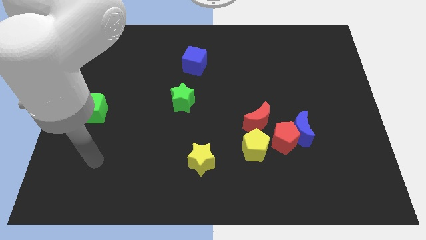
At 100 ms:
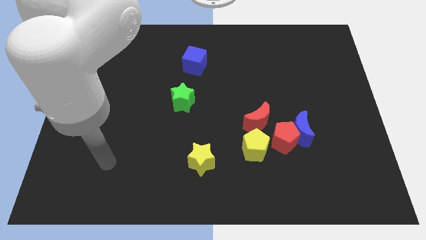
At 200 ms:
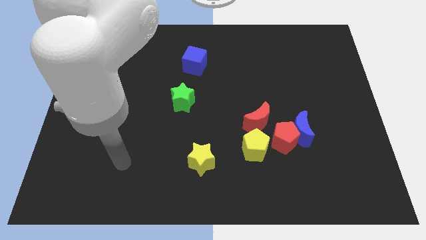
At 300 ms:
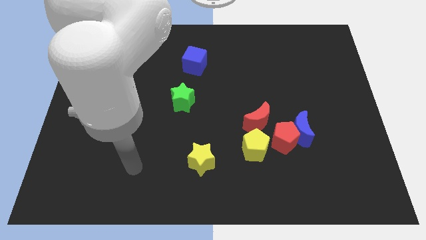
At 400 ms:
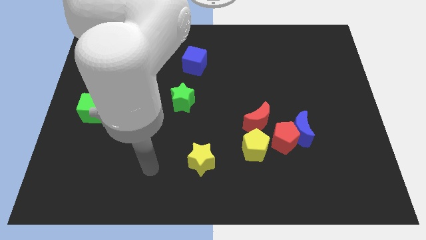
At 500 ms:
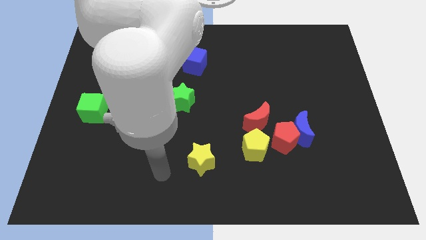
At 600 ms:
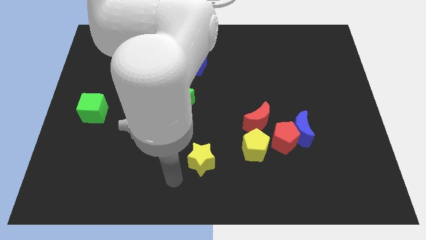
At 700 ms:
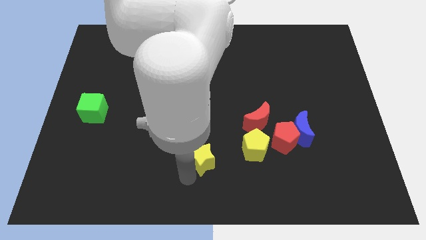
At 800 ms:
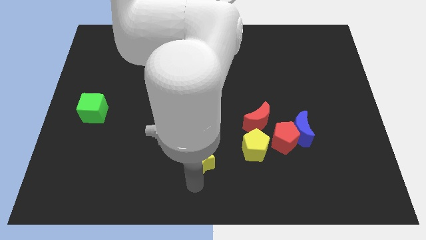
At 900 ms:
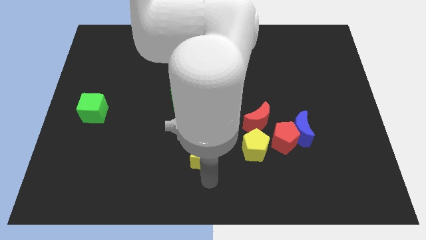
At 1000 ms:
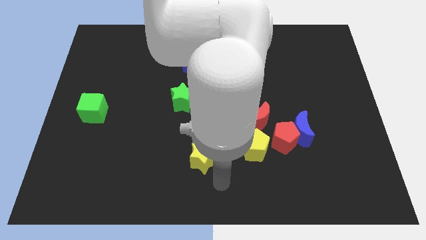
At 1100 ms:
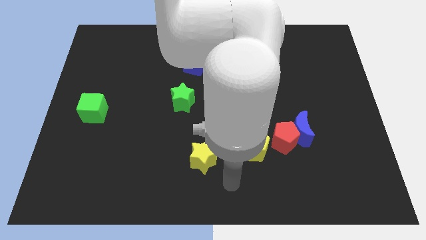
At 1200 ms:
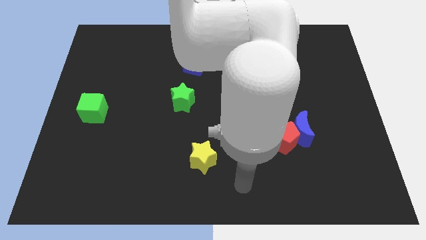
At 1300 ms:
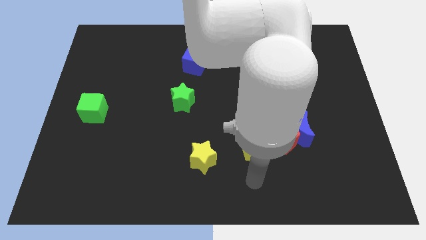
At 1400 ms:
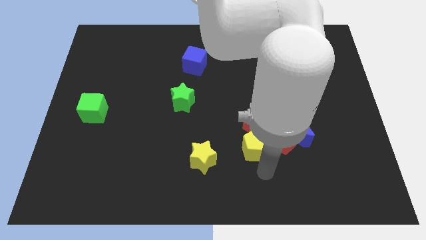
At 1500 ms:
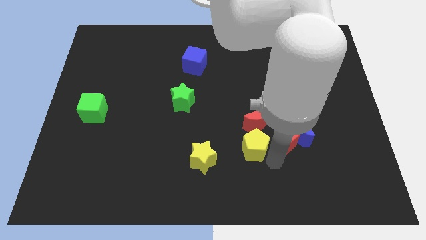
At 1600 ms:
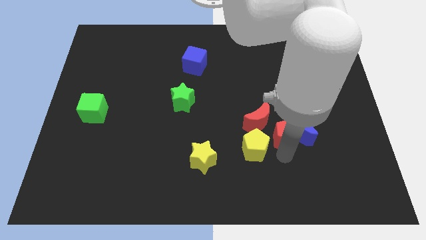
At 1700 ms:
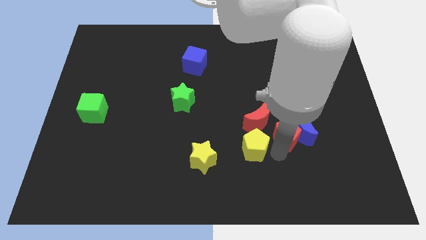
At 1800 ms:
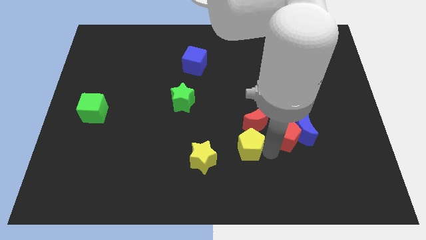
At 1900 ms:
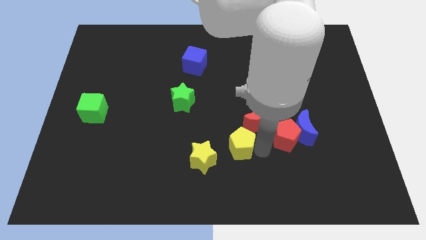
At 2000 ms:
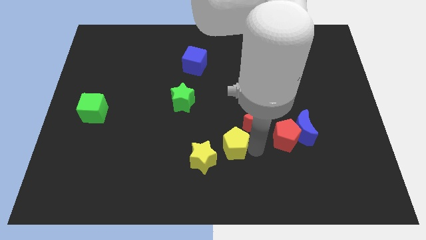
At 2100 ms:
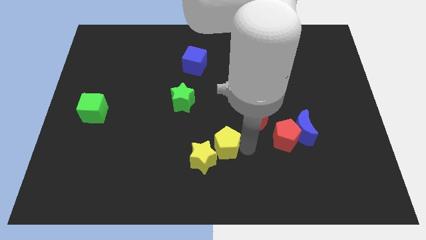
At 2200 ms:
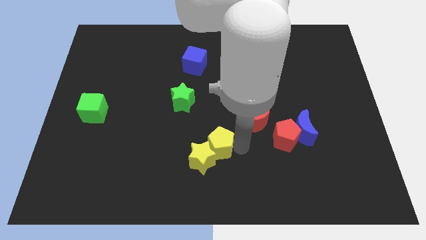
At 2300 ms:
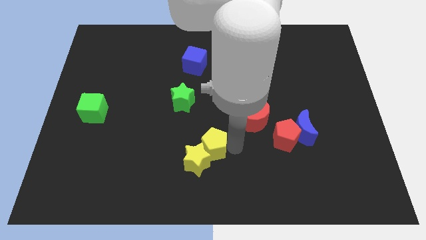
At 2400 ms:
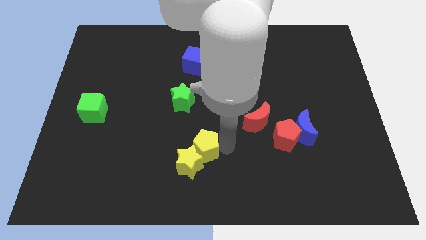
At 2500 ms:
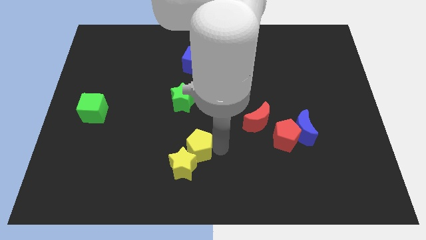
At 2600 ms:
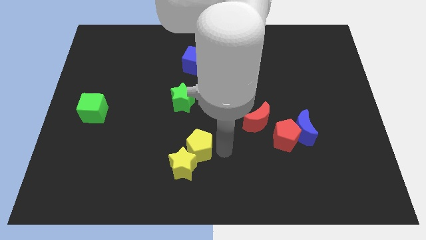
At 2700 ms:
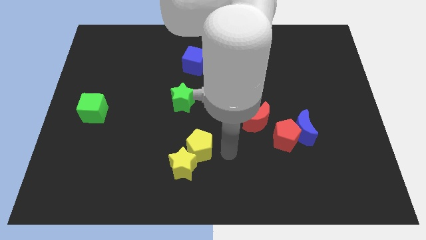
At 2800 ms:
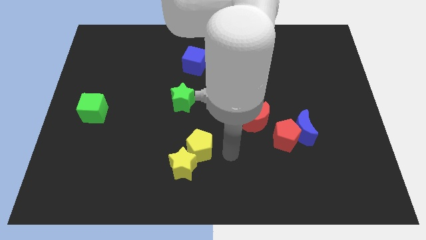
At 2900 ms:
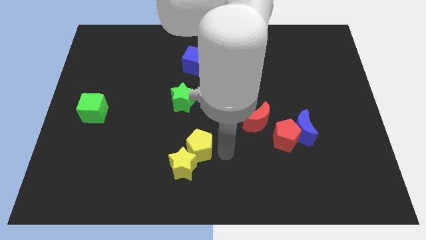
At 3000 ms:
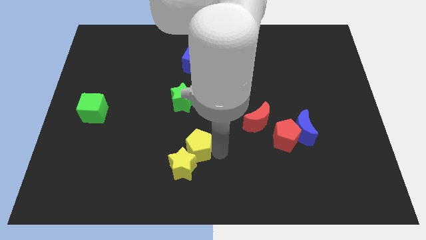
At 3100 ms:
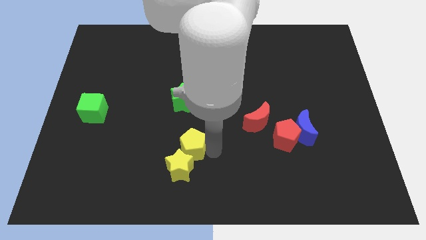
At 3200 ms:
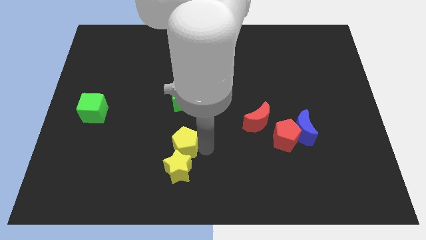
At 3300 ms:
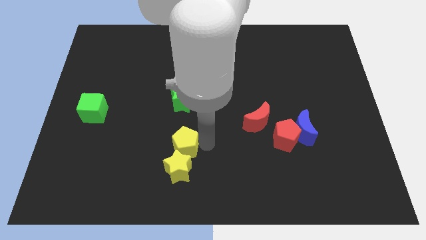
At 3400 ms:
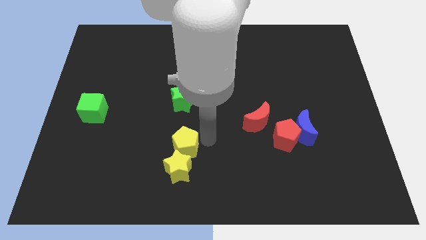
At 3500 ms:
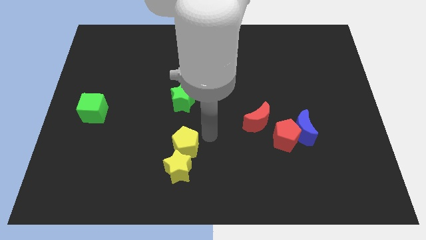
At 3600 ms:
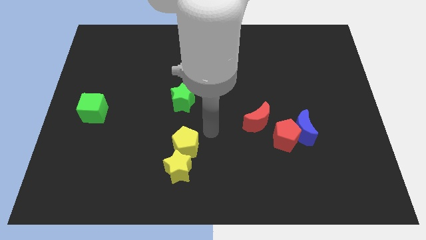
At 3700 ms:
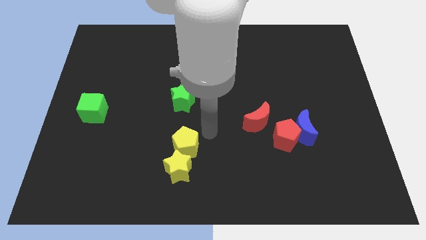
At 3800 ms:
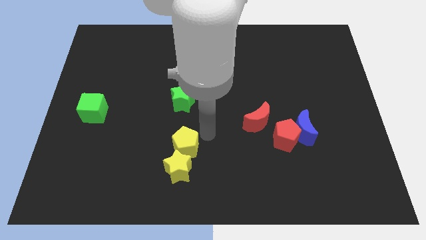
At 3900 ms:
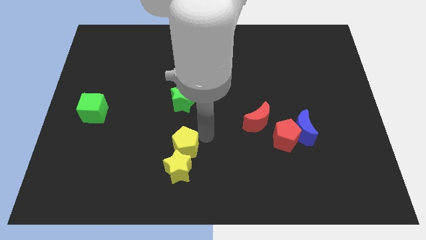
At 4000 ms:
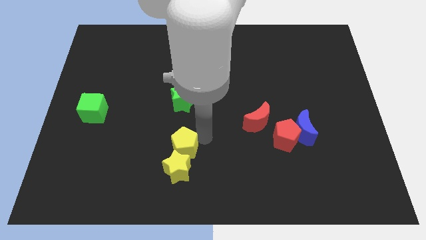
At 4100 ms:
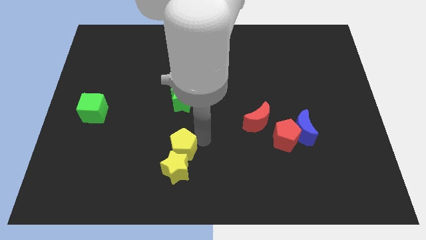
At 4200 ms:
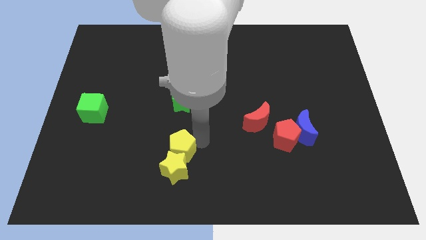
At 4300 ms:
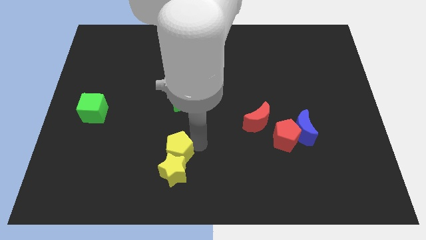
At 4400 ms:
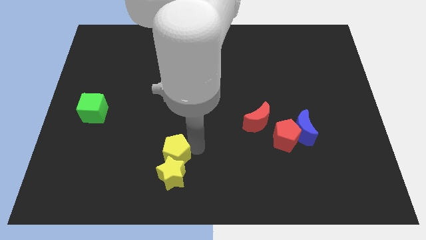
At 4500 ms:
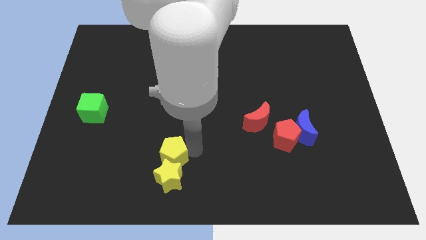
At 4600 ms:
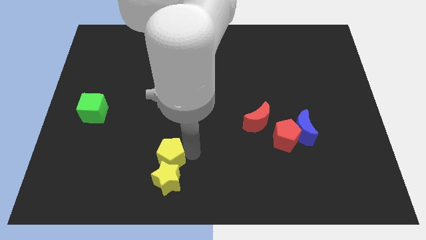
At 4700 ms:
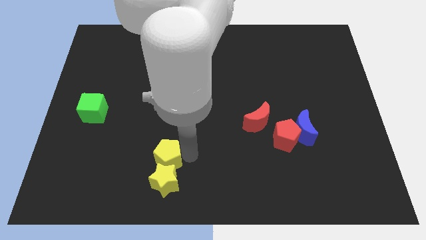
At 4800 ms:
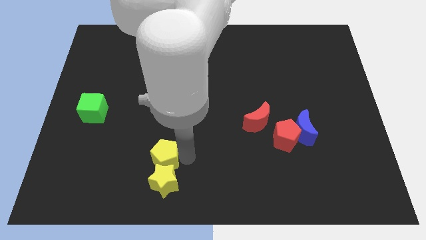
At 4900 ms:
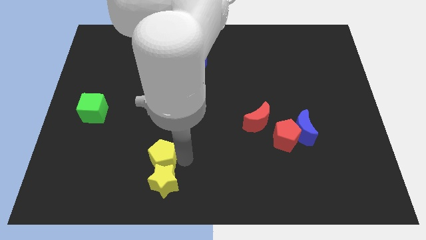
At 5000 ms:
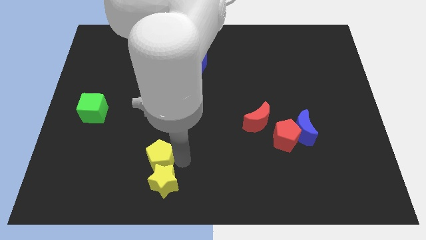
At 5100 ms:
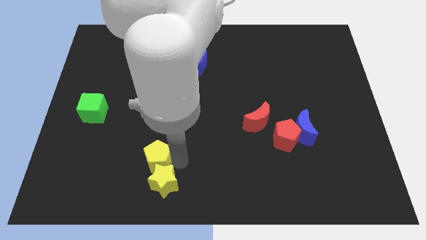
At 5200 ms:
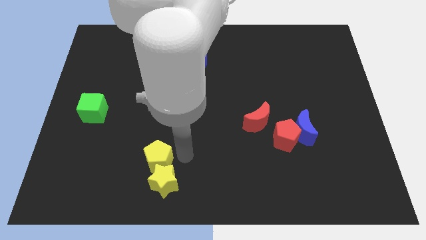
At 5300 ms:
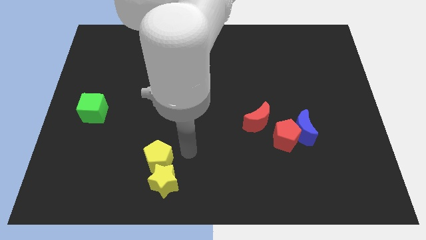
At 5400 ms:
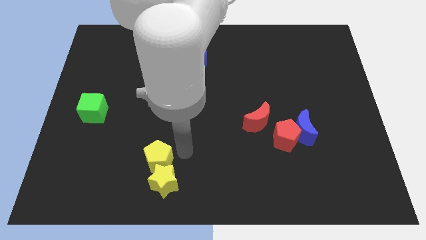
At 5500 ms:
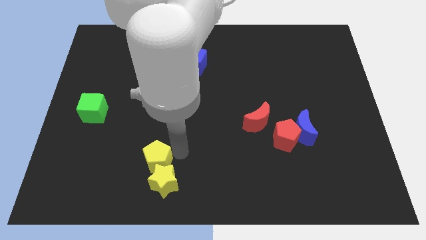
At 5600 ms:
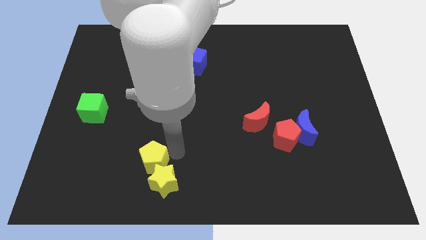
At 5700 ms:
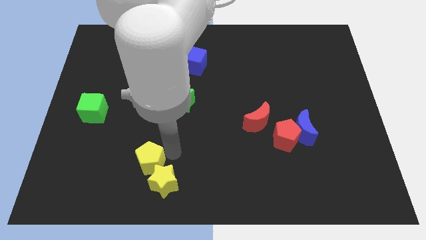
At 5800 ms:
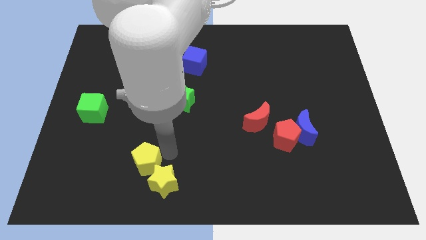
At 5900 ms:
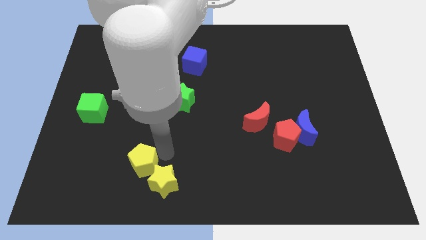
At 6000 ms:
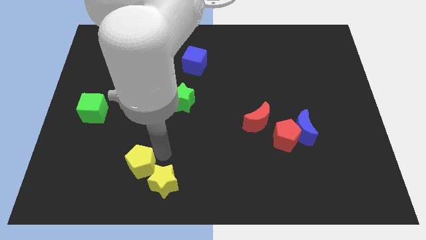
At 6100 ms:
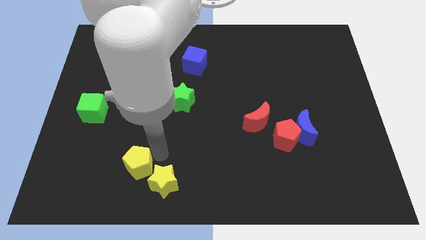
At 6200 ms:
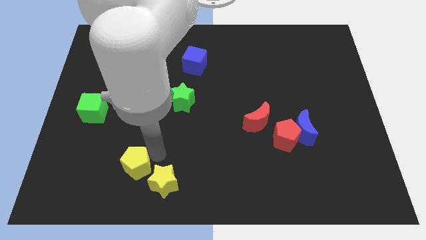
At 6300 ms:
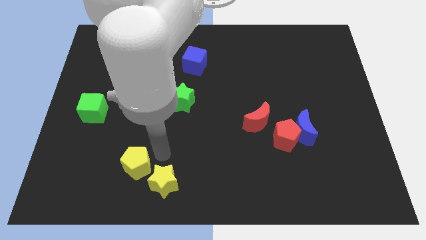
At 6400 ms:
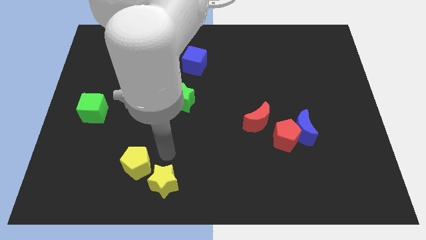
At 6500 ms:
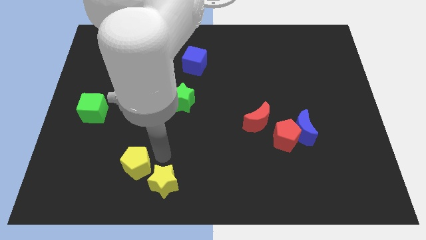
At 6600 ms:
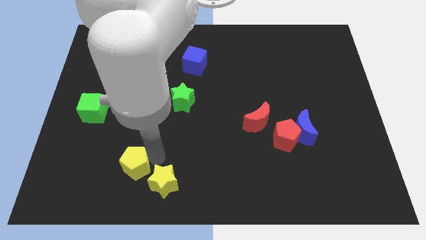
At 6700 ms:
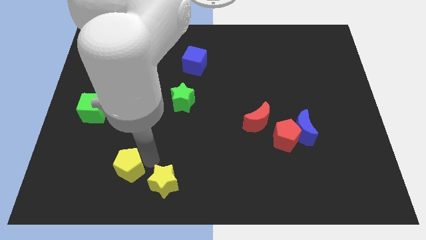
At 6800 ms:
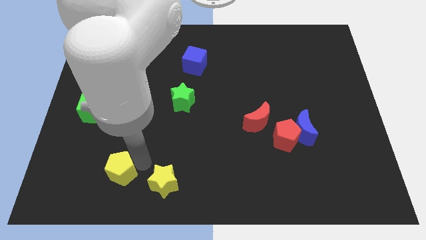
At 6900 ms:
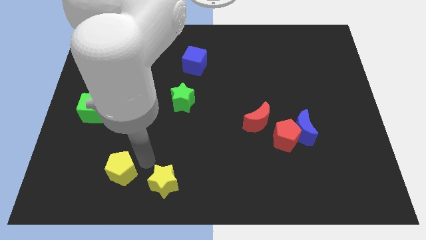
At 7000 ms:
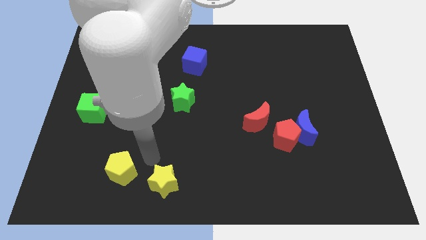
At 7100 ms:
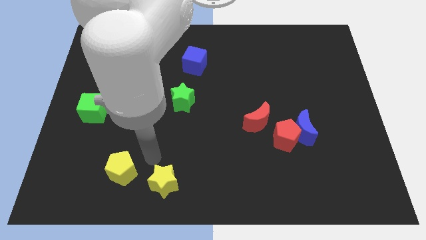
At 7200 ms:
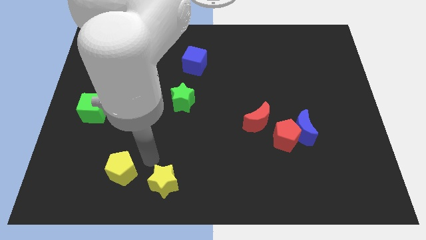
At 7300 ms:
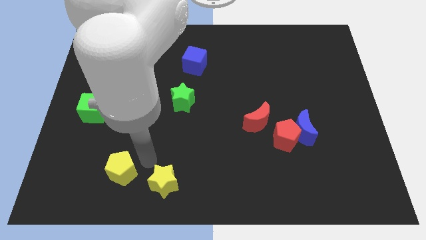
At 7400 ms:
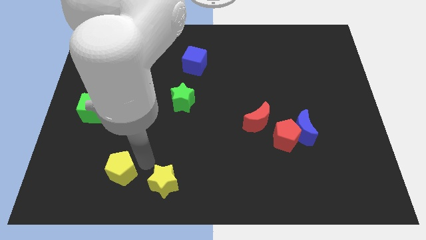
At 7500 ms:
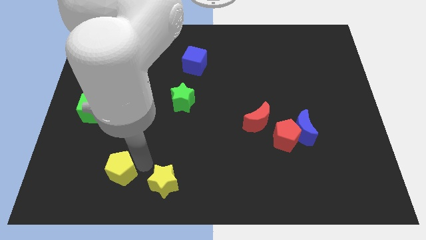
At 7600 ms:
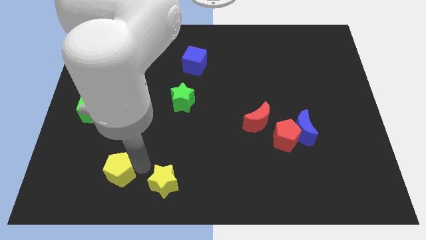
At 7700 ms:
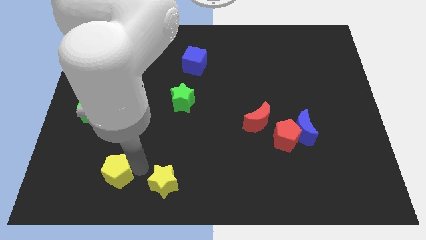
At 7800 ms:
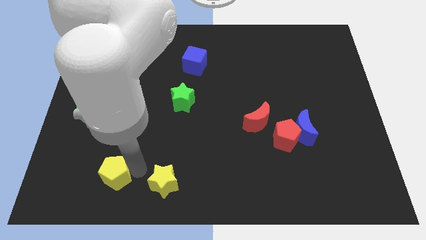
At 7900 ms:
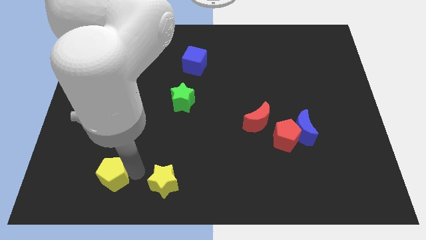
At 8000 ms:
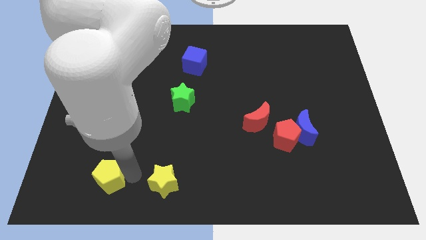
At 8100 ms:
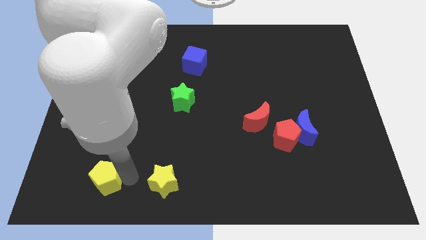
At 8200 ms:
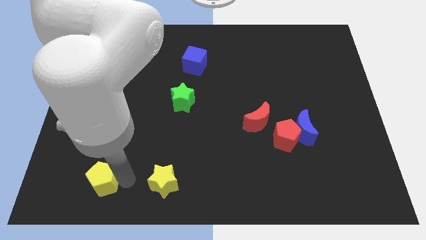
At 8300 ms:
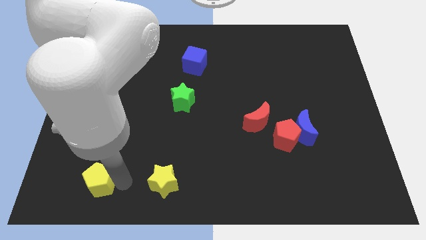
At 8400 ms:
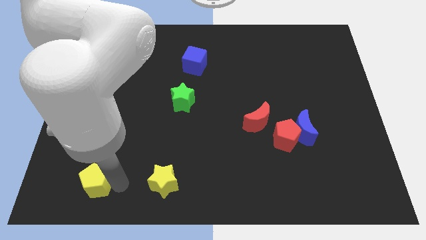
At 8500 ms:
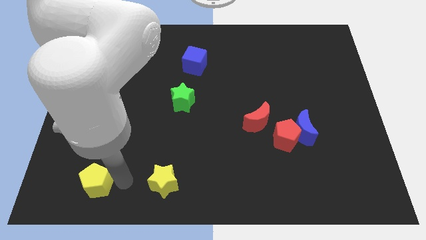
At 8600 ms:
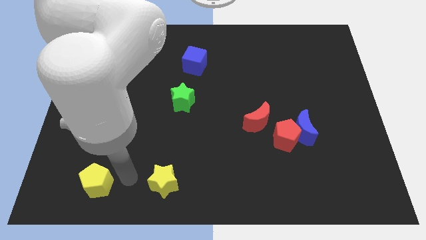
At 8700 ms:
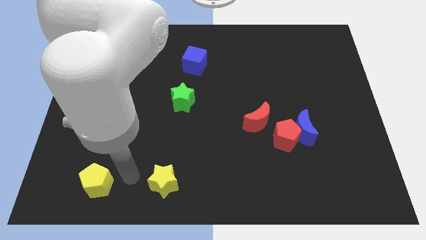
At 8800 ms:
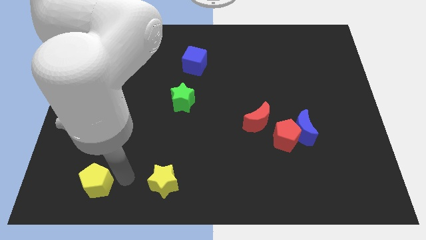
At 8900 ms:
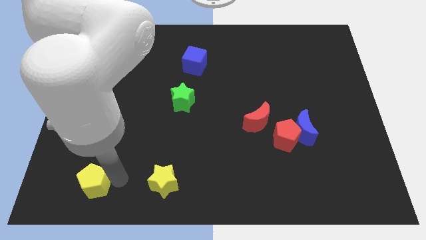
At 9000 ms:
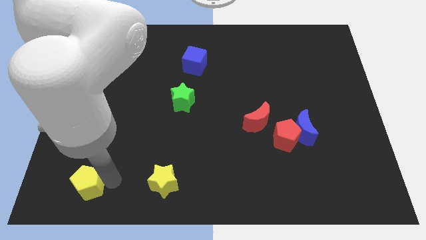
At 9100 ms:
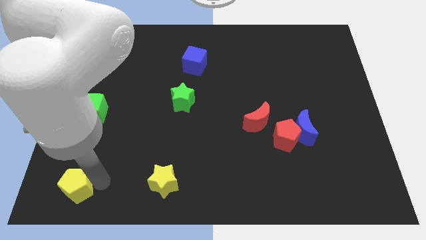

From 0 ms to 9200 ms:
put the yellow pentagon to the bottom left
